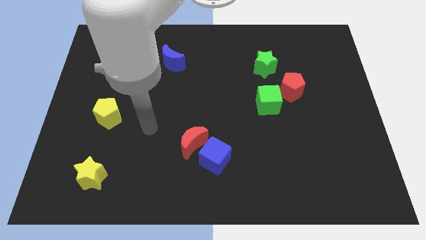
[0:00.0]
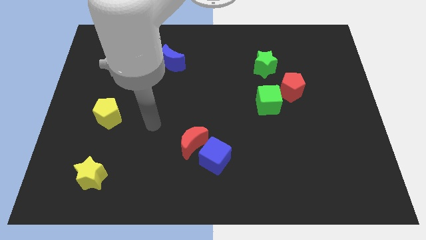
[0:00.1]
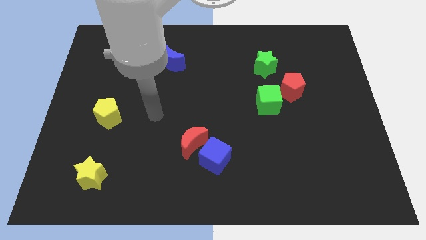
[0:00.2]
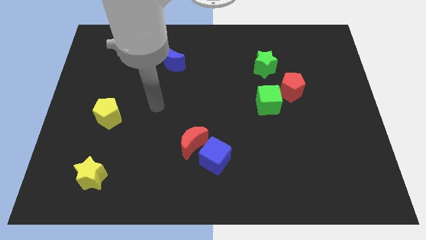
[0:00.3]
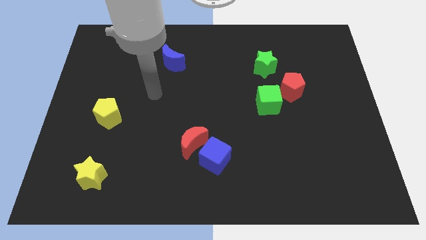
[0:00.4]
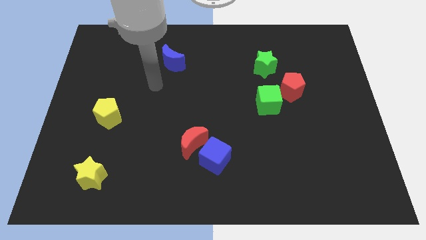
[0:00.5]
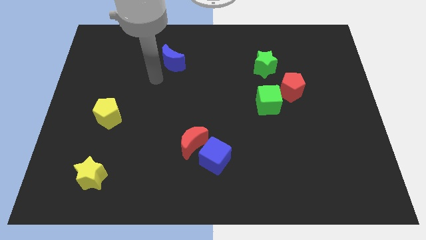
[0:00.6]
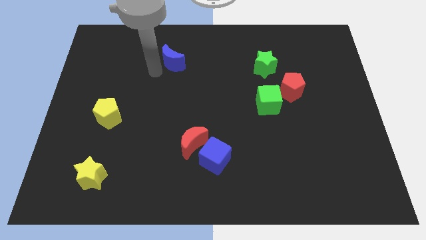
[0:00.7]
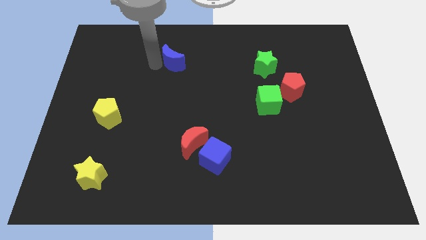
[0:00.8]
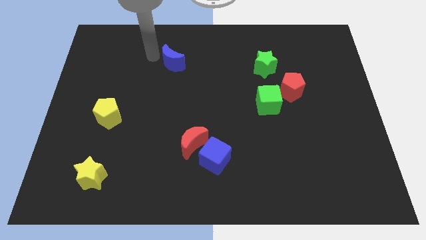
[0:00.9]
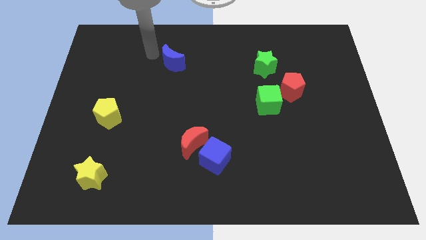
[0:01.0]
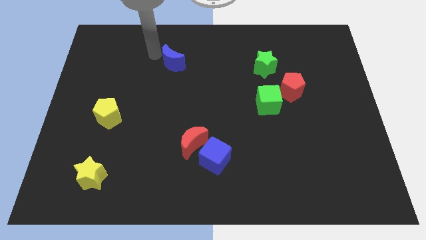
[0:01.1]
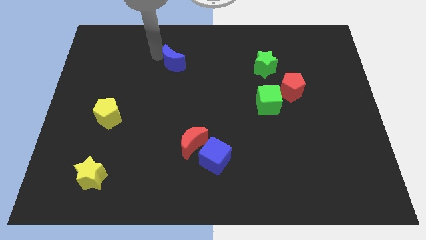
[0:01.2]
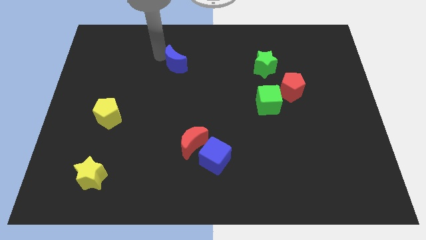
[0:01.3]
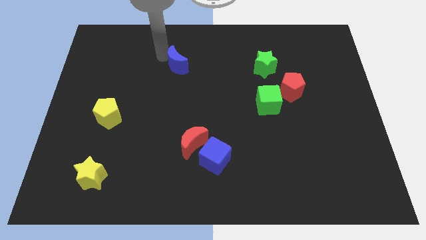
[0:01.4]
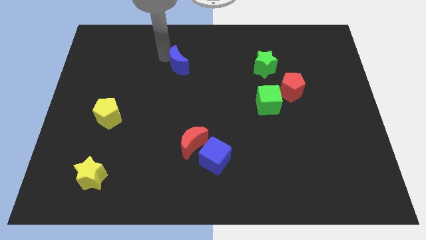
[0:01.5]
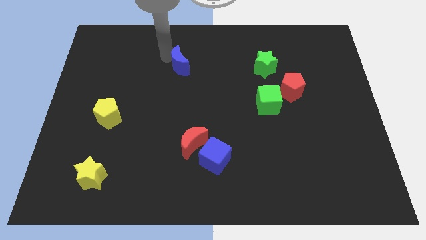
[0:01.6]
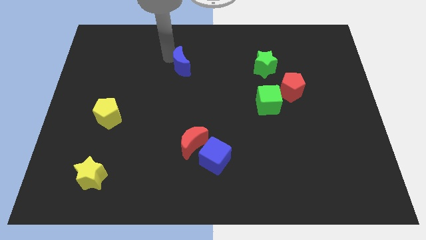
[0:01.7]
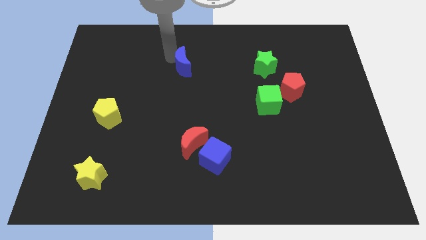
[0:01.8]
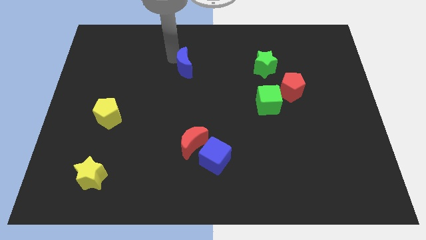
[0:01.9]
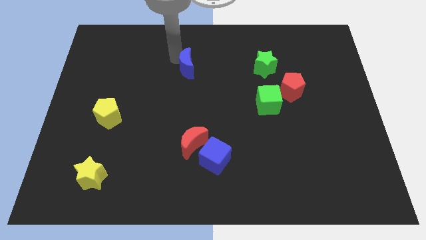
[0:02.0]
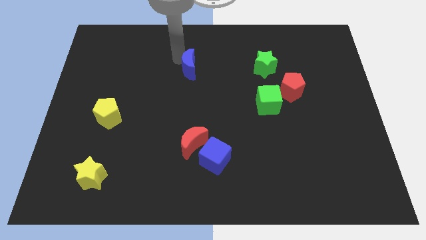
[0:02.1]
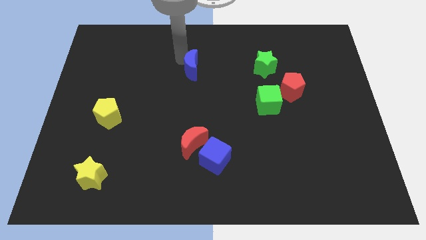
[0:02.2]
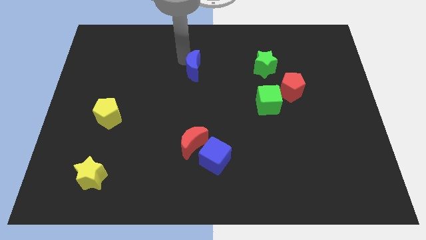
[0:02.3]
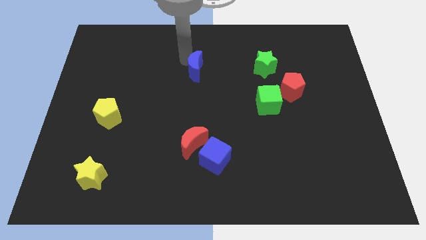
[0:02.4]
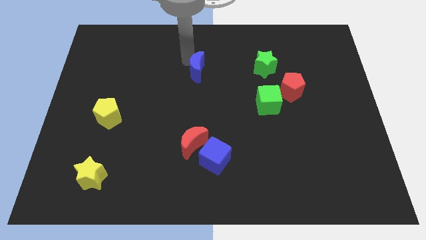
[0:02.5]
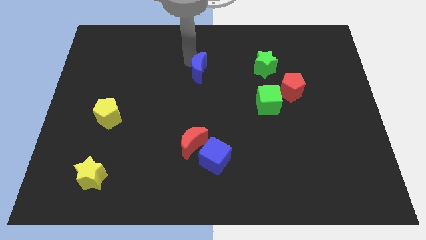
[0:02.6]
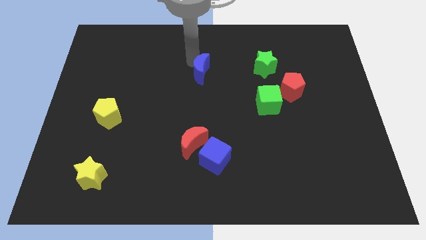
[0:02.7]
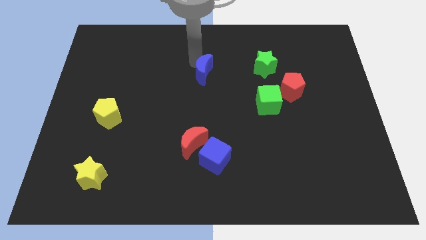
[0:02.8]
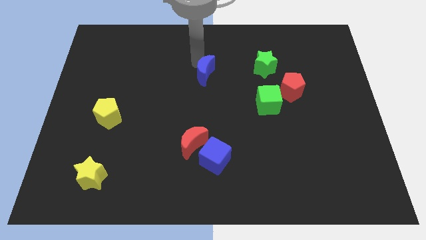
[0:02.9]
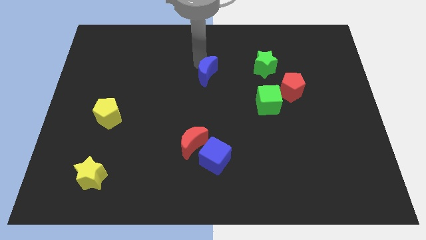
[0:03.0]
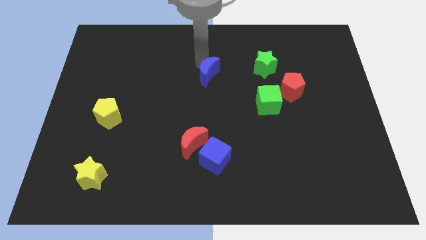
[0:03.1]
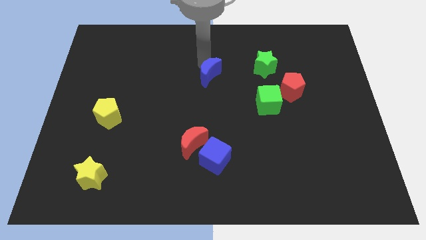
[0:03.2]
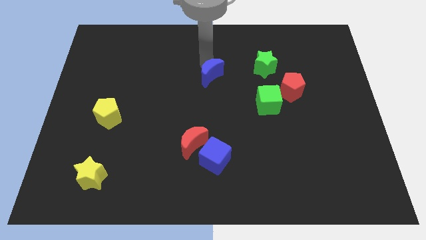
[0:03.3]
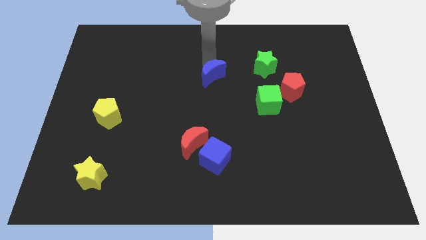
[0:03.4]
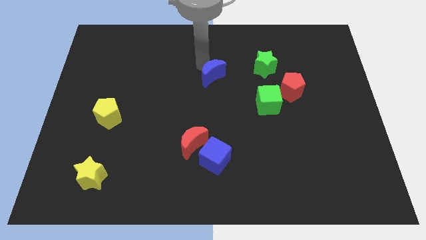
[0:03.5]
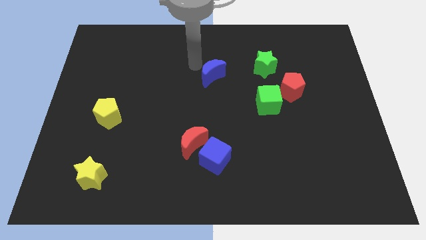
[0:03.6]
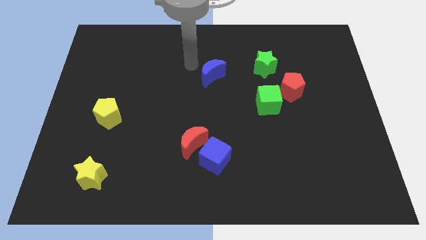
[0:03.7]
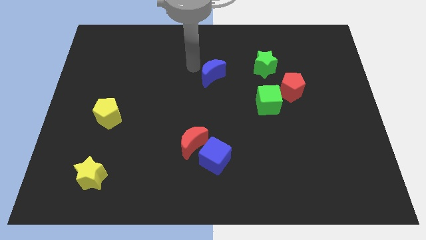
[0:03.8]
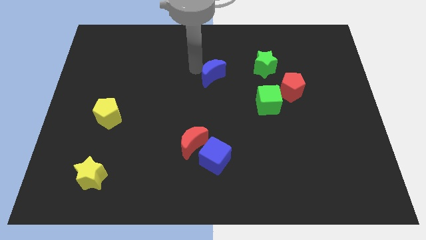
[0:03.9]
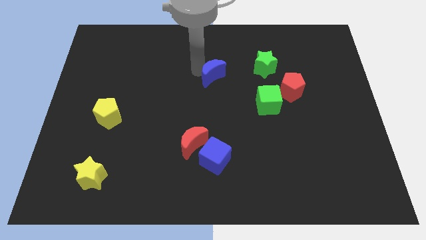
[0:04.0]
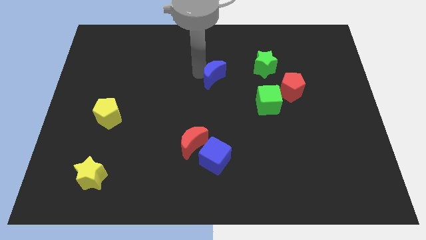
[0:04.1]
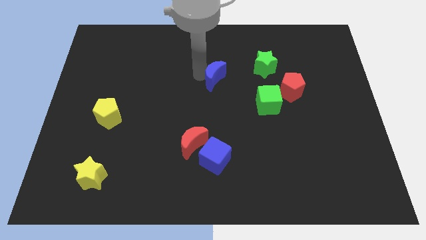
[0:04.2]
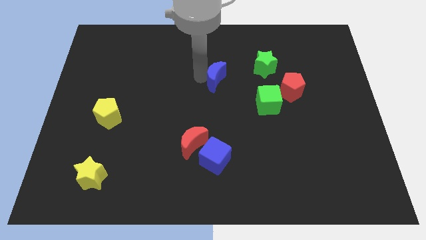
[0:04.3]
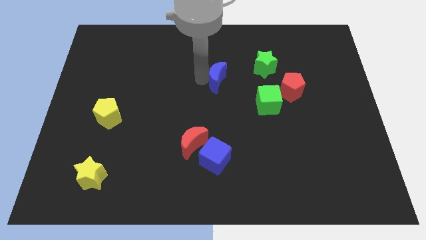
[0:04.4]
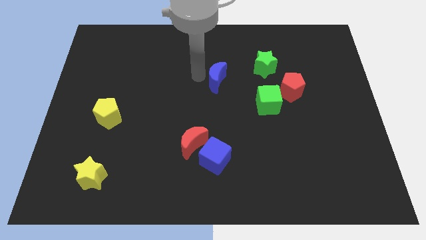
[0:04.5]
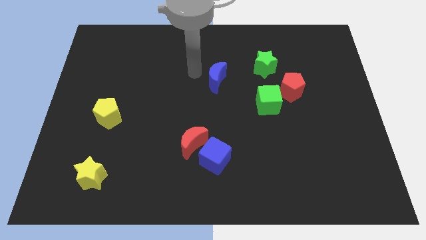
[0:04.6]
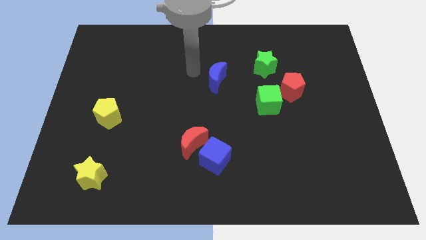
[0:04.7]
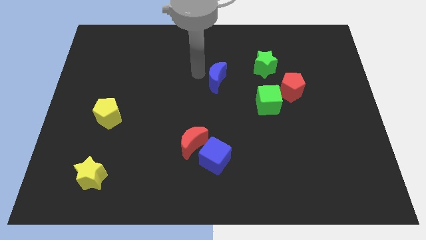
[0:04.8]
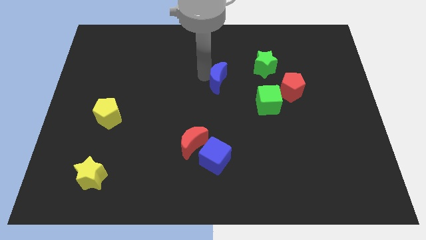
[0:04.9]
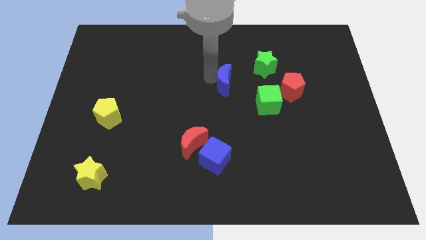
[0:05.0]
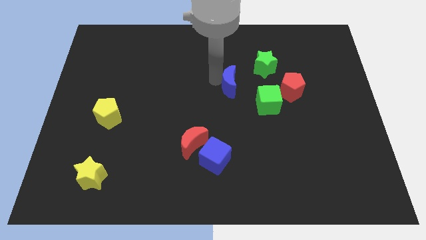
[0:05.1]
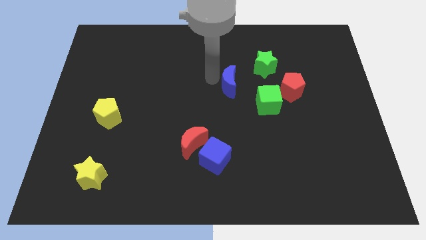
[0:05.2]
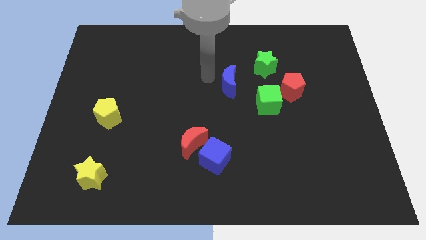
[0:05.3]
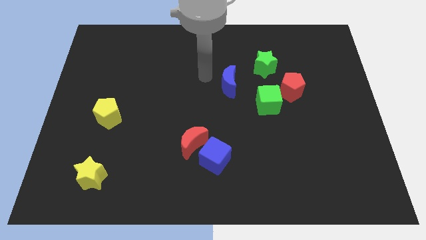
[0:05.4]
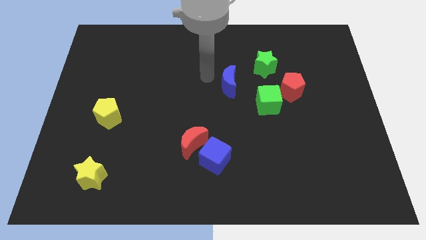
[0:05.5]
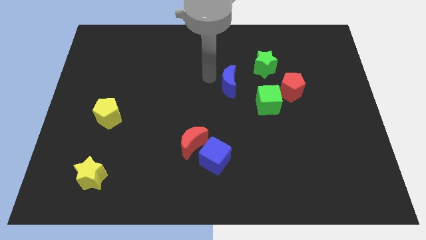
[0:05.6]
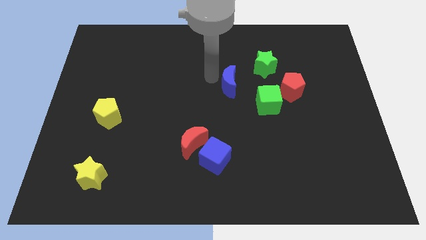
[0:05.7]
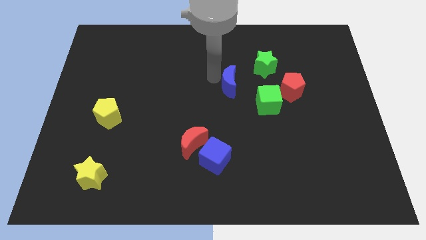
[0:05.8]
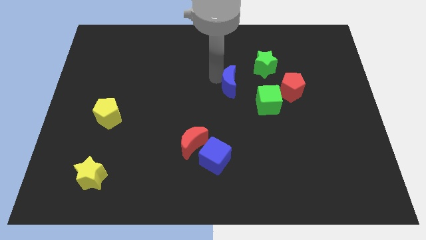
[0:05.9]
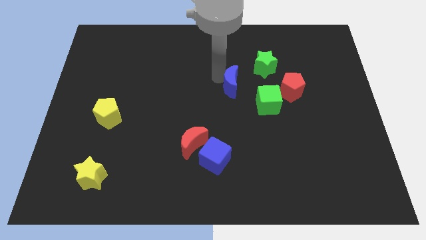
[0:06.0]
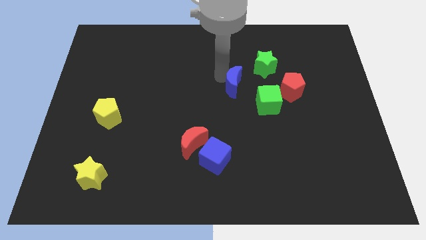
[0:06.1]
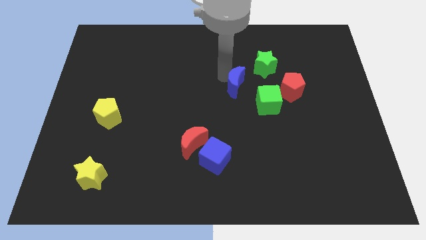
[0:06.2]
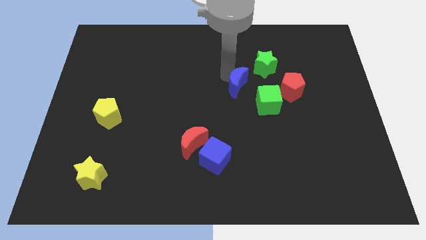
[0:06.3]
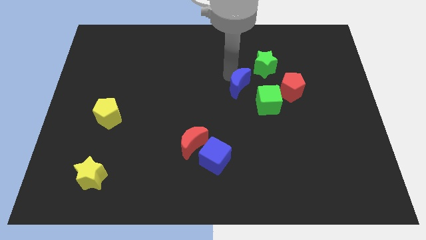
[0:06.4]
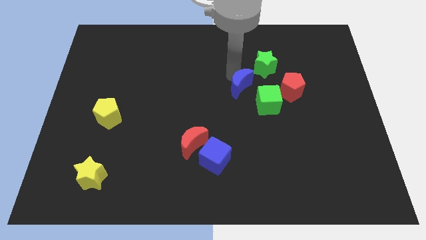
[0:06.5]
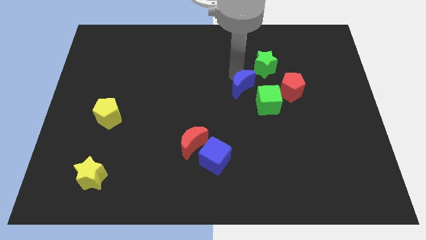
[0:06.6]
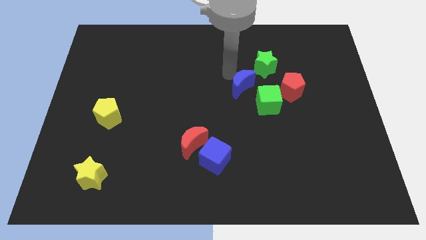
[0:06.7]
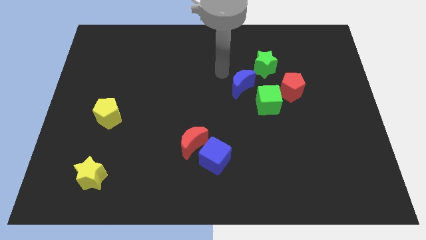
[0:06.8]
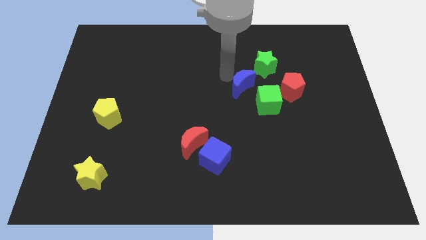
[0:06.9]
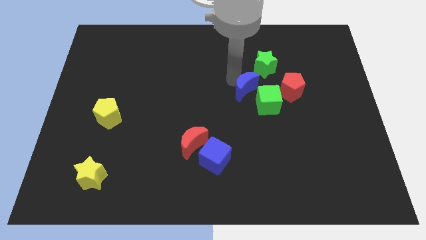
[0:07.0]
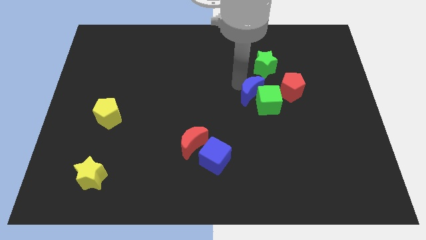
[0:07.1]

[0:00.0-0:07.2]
slide the blue moon next to the green cube
